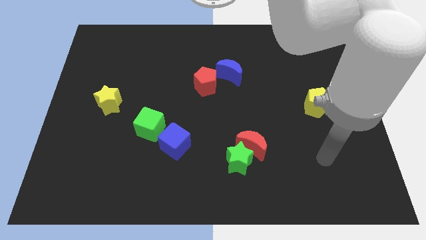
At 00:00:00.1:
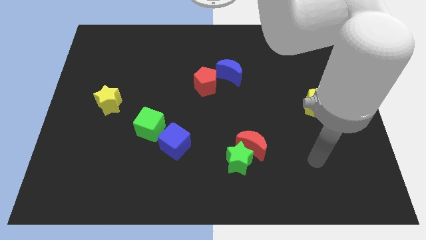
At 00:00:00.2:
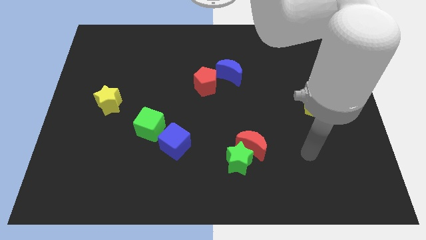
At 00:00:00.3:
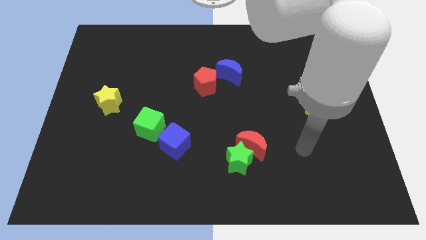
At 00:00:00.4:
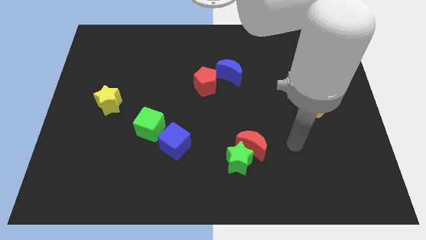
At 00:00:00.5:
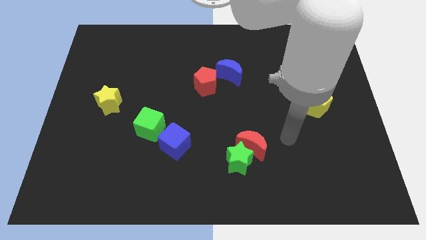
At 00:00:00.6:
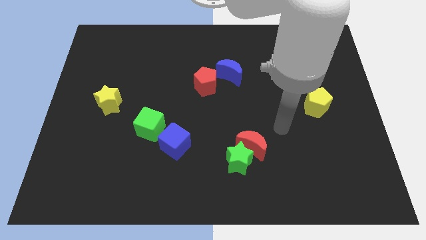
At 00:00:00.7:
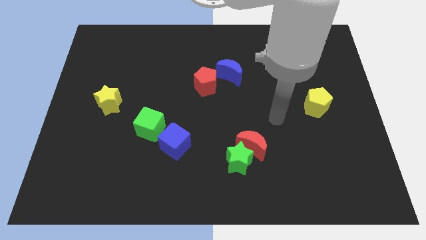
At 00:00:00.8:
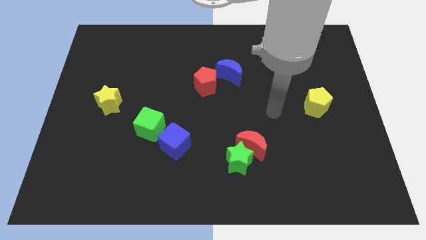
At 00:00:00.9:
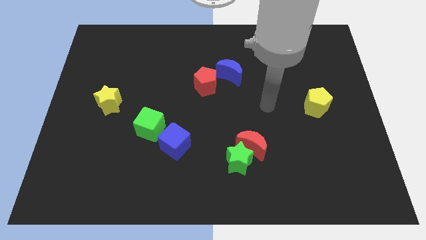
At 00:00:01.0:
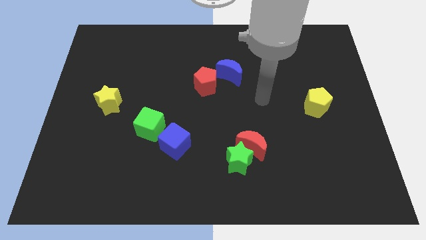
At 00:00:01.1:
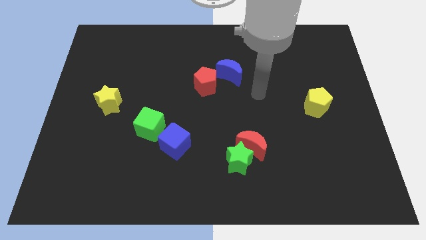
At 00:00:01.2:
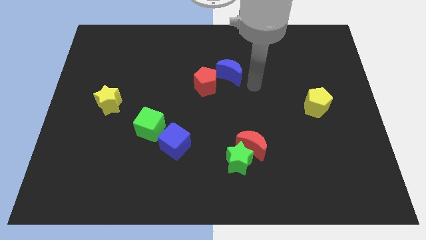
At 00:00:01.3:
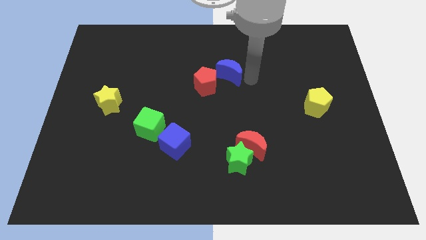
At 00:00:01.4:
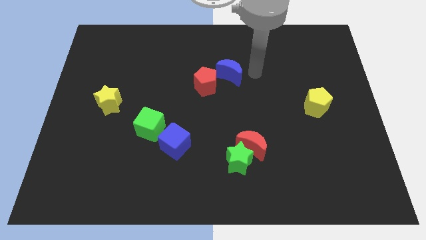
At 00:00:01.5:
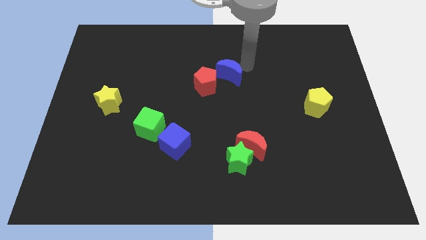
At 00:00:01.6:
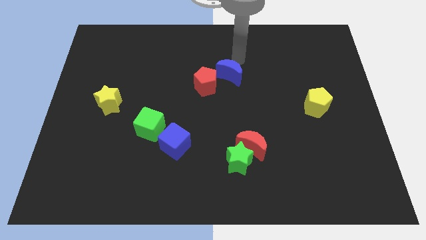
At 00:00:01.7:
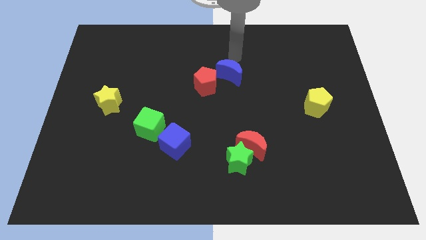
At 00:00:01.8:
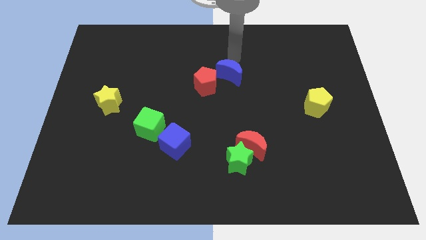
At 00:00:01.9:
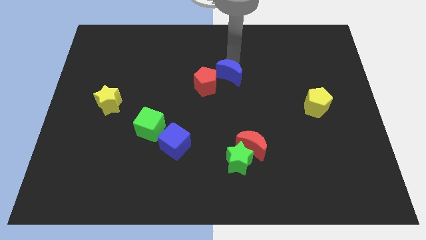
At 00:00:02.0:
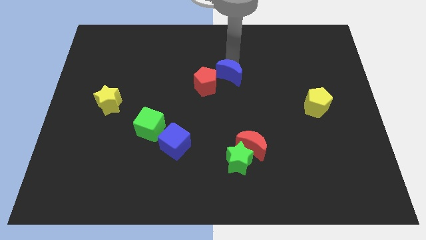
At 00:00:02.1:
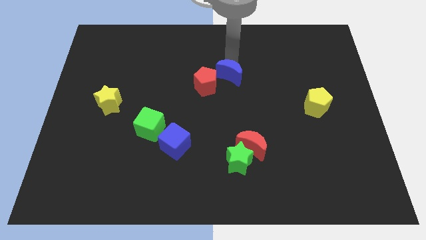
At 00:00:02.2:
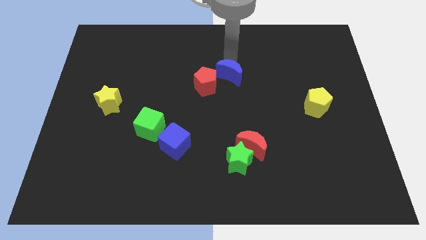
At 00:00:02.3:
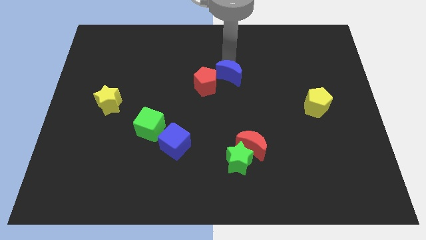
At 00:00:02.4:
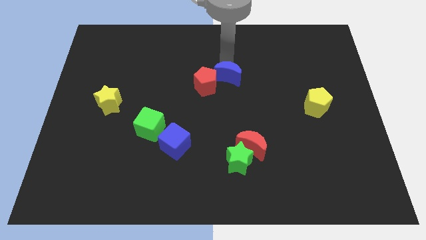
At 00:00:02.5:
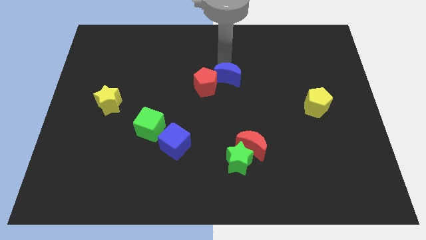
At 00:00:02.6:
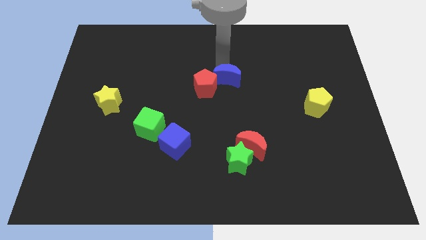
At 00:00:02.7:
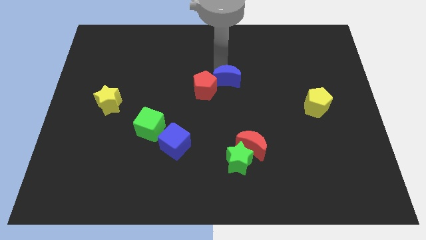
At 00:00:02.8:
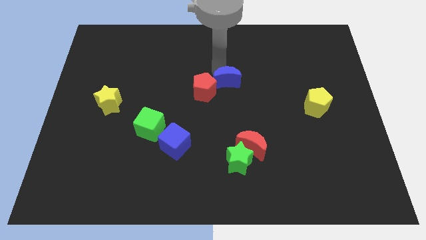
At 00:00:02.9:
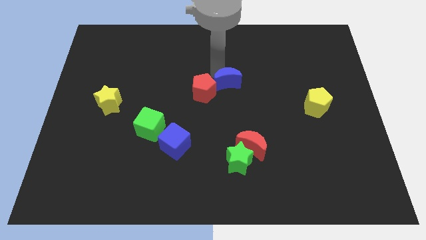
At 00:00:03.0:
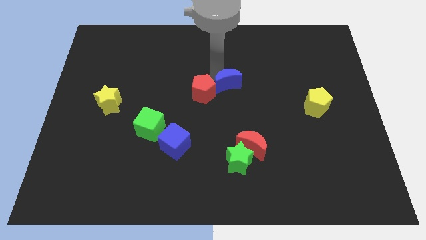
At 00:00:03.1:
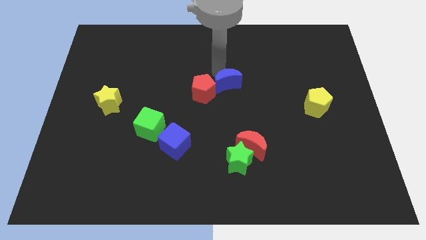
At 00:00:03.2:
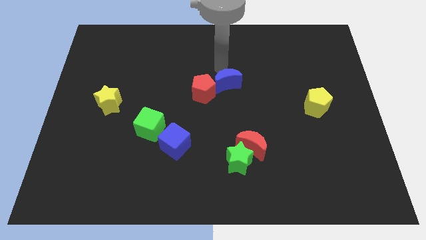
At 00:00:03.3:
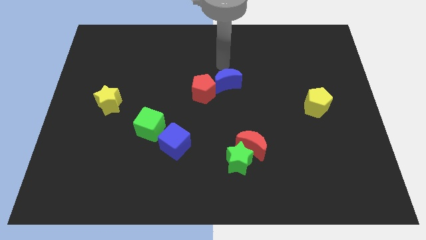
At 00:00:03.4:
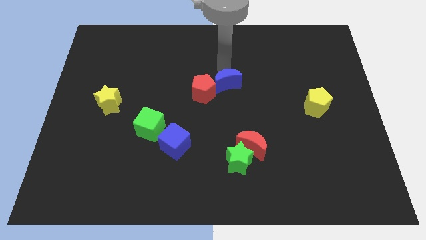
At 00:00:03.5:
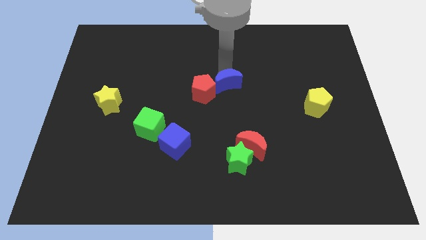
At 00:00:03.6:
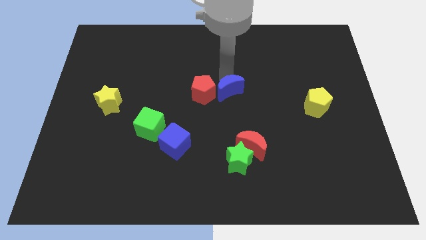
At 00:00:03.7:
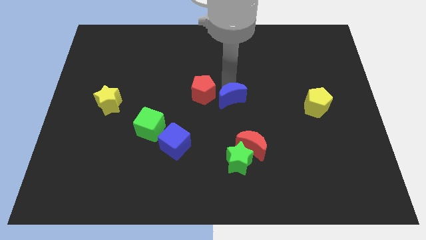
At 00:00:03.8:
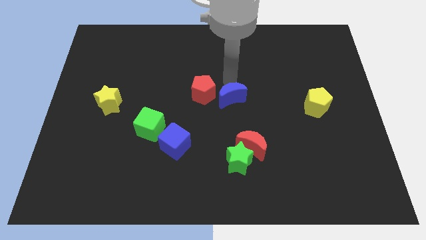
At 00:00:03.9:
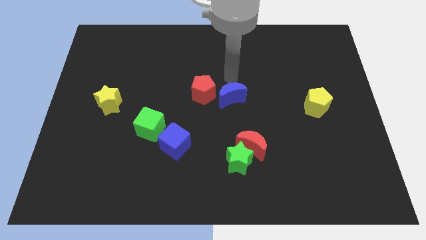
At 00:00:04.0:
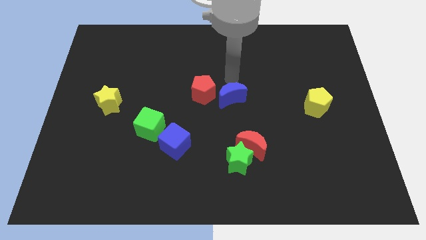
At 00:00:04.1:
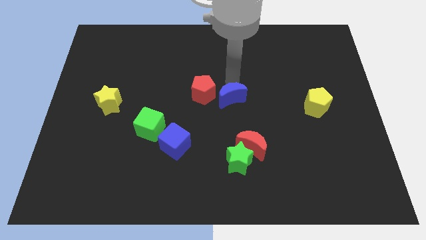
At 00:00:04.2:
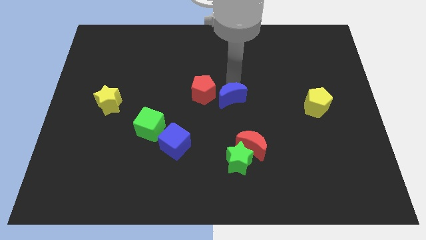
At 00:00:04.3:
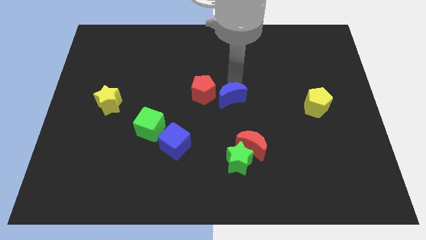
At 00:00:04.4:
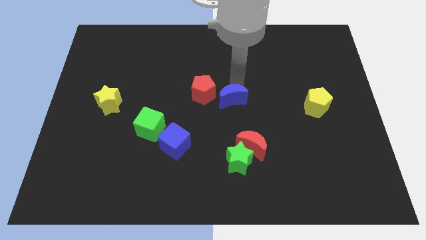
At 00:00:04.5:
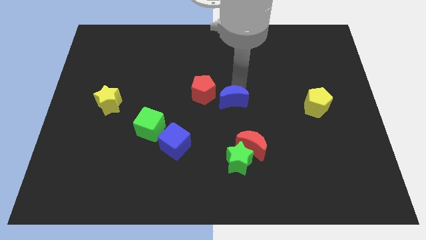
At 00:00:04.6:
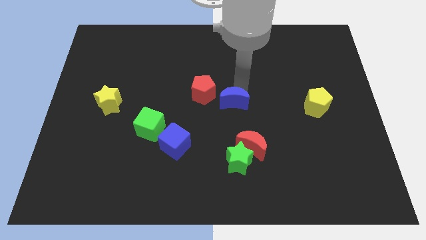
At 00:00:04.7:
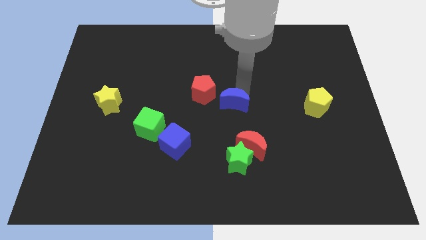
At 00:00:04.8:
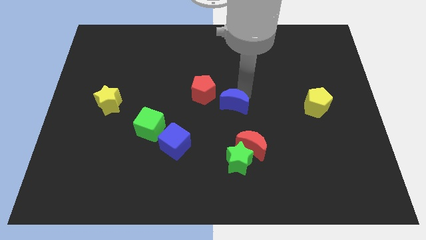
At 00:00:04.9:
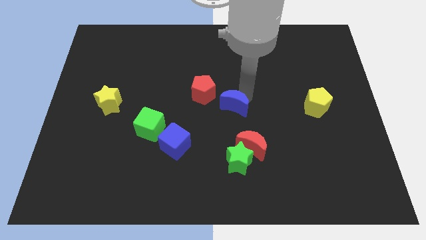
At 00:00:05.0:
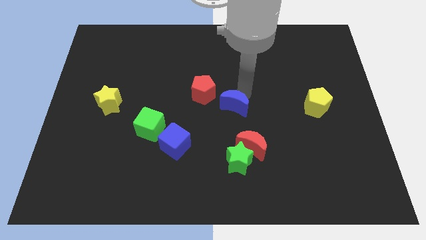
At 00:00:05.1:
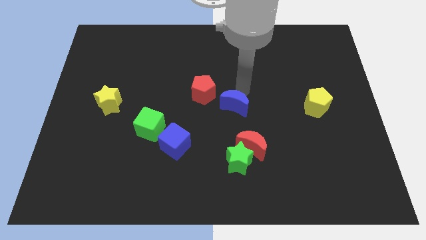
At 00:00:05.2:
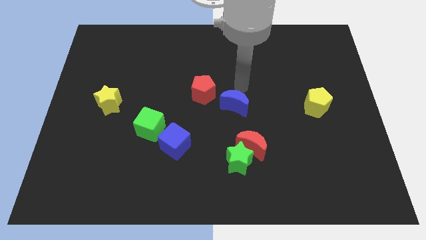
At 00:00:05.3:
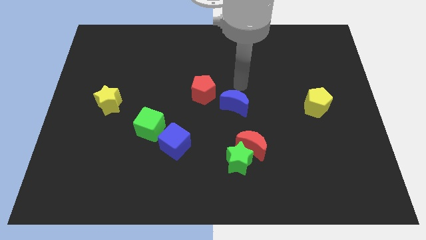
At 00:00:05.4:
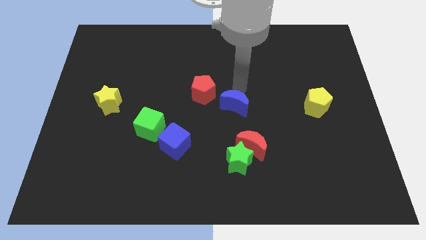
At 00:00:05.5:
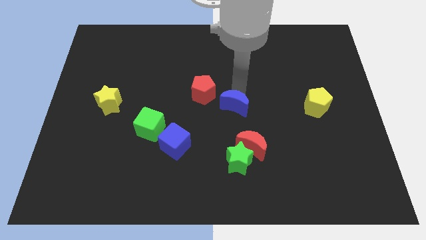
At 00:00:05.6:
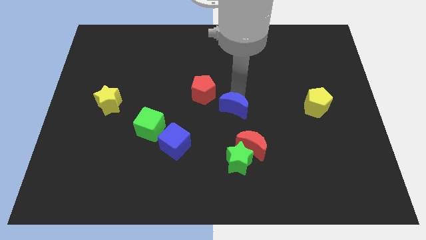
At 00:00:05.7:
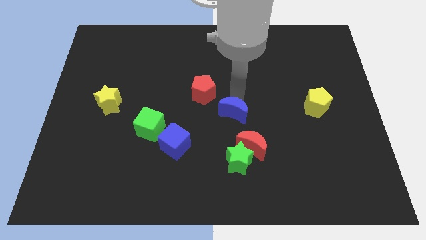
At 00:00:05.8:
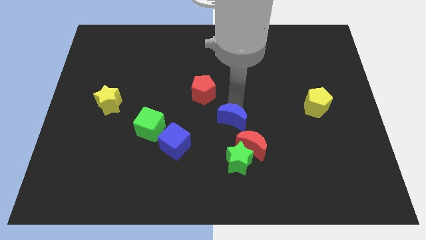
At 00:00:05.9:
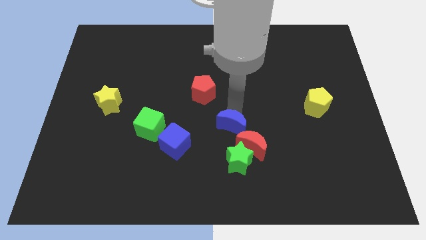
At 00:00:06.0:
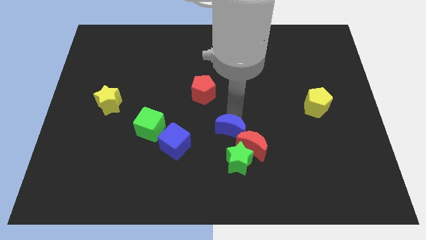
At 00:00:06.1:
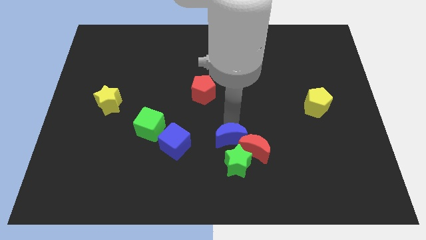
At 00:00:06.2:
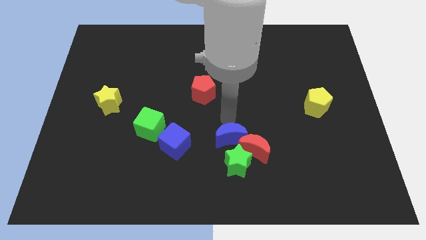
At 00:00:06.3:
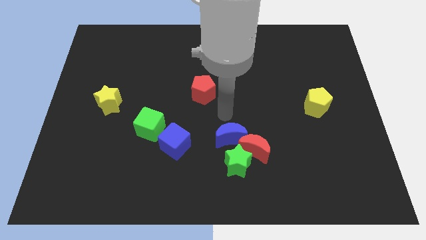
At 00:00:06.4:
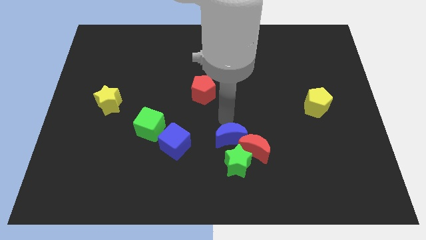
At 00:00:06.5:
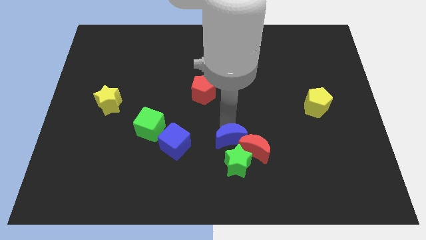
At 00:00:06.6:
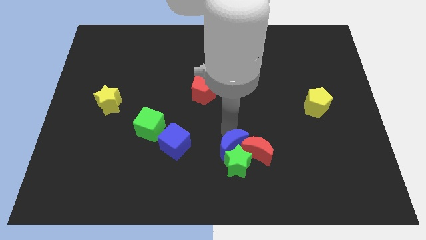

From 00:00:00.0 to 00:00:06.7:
put the blue moon towards the green star

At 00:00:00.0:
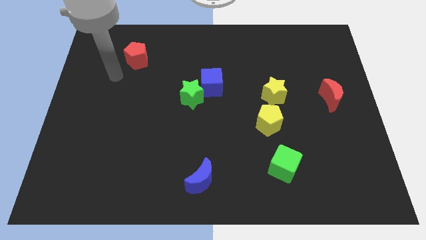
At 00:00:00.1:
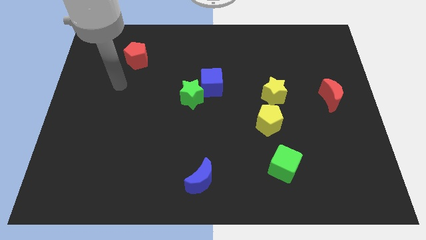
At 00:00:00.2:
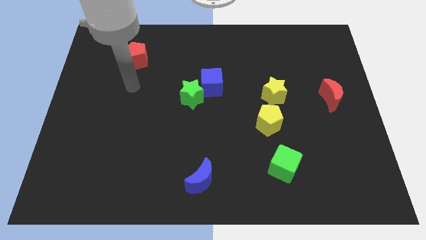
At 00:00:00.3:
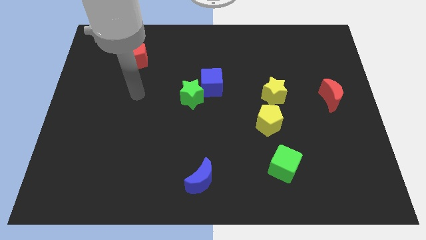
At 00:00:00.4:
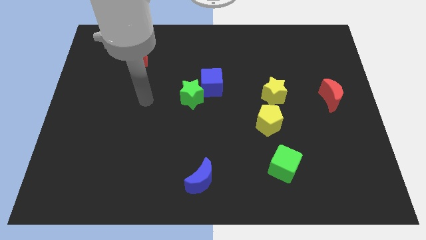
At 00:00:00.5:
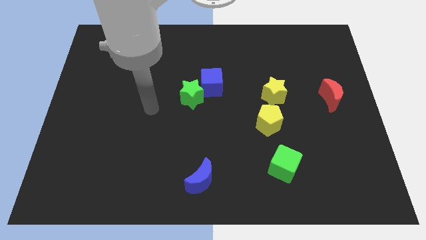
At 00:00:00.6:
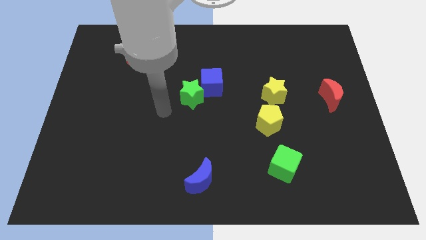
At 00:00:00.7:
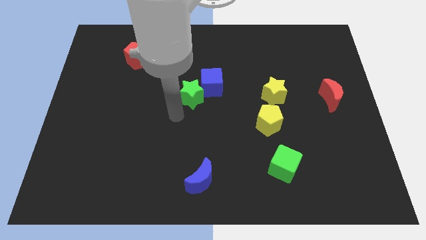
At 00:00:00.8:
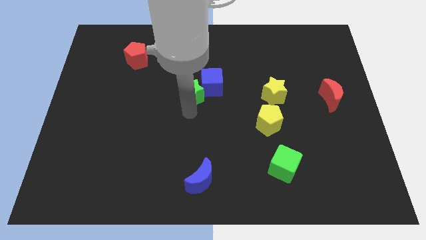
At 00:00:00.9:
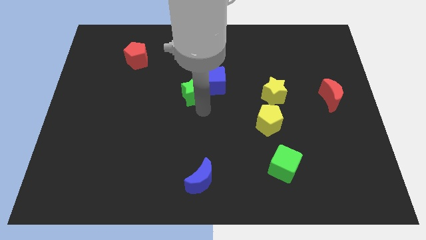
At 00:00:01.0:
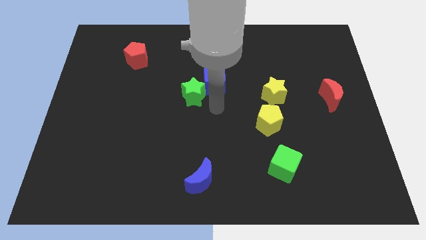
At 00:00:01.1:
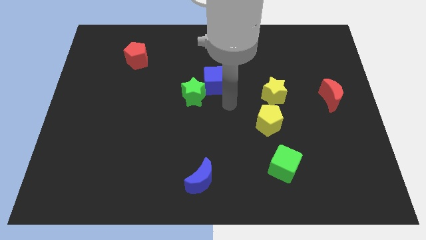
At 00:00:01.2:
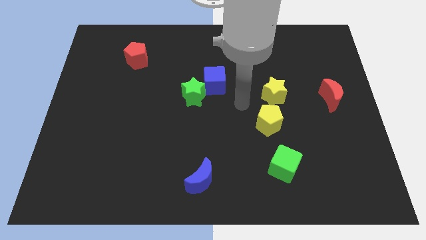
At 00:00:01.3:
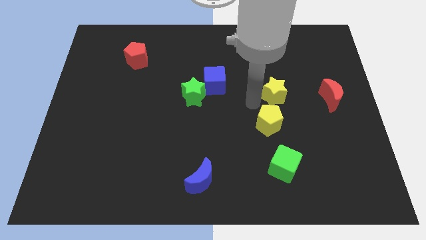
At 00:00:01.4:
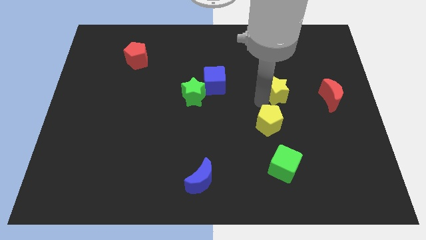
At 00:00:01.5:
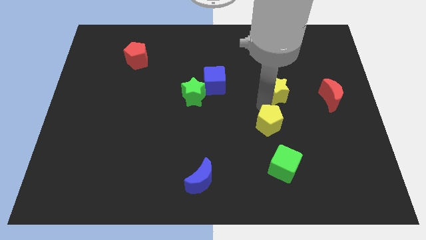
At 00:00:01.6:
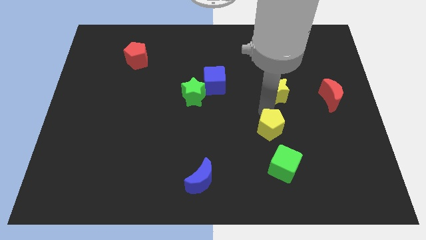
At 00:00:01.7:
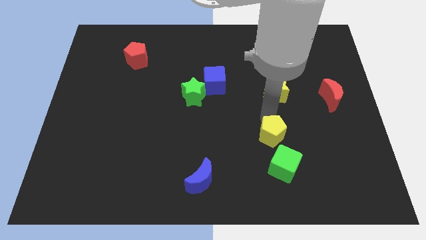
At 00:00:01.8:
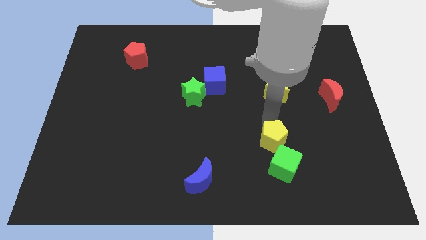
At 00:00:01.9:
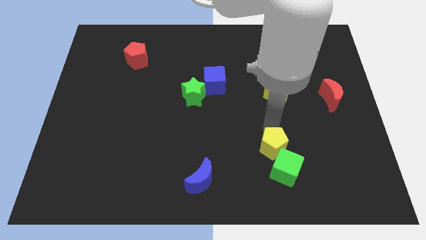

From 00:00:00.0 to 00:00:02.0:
put the yellow pentagon next to the green cube
